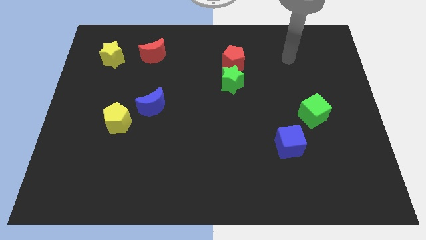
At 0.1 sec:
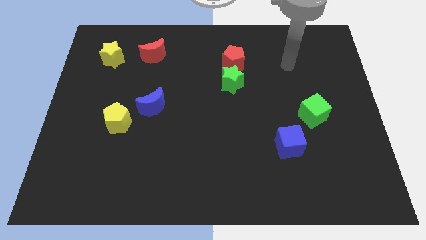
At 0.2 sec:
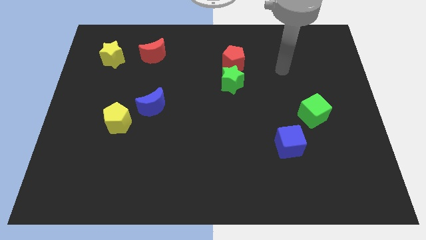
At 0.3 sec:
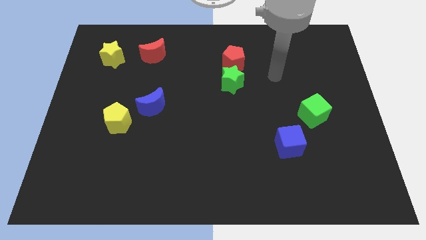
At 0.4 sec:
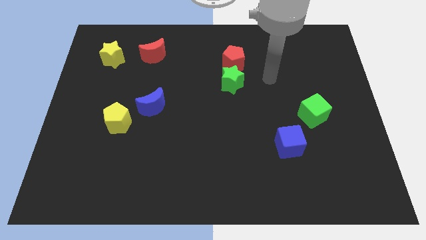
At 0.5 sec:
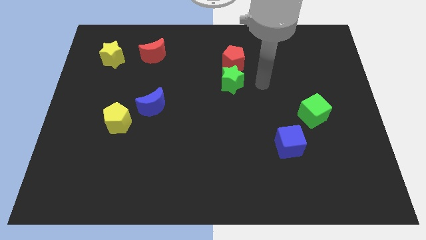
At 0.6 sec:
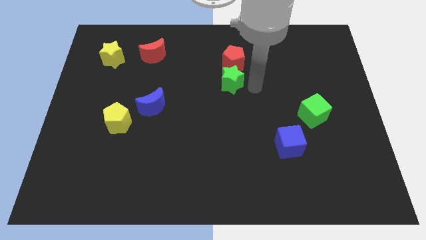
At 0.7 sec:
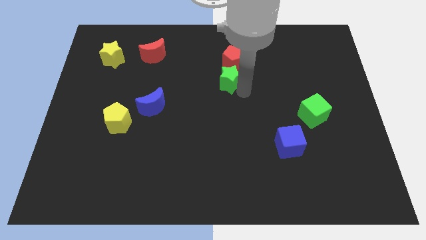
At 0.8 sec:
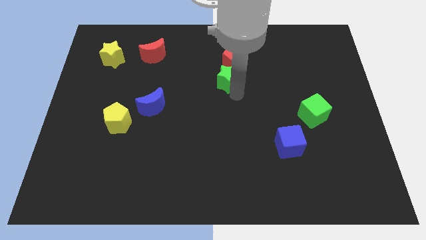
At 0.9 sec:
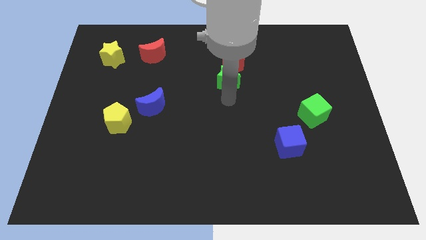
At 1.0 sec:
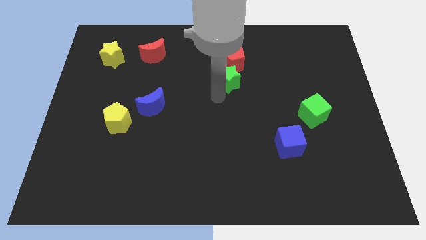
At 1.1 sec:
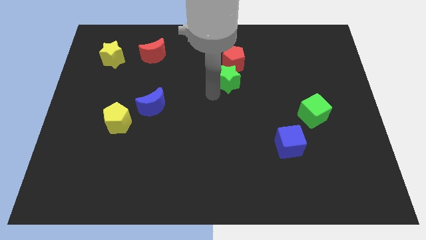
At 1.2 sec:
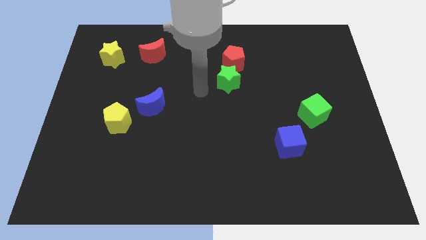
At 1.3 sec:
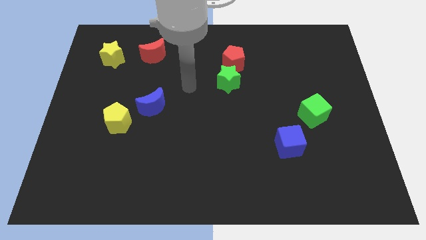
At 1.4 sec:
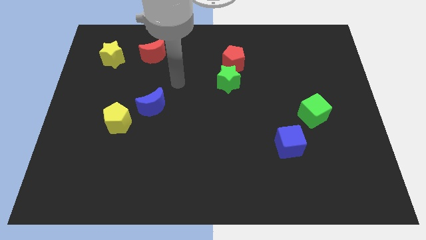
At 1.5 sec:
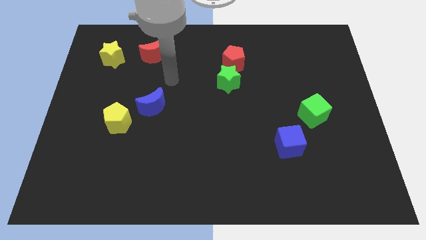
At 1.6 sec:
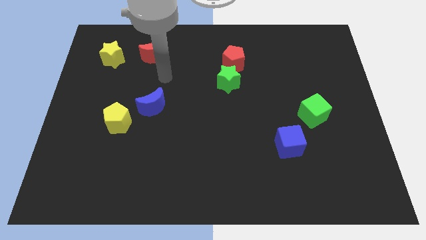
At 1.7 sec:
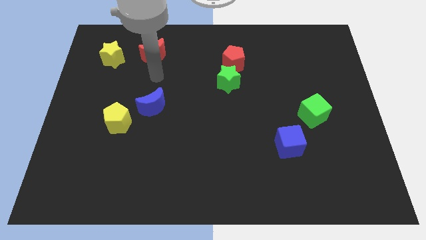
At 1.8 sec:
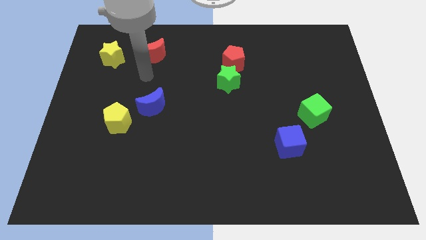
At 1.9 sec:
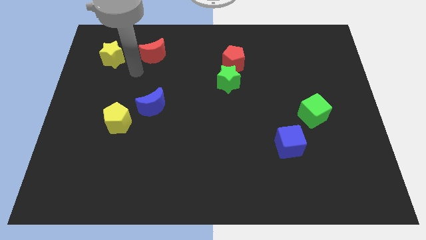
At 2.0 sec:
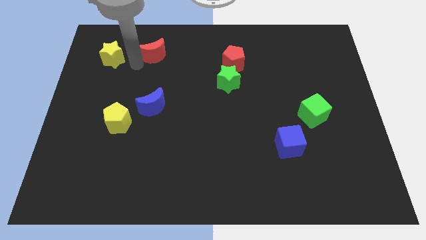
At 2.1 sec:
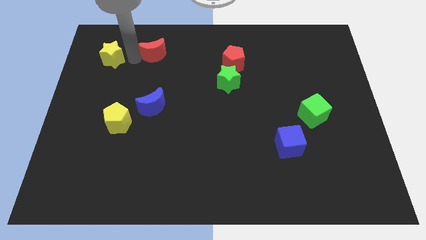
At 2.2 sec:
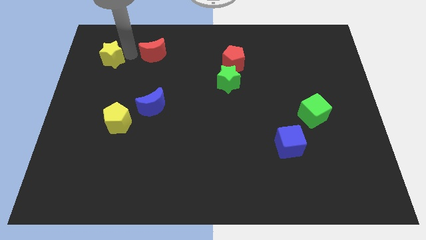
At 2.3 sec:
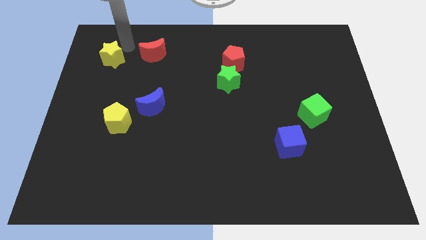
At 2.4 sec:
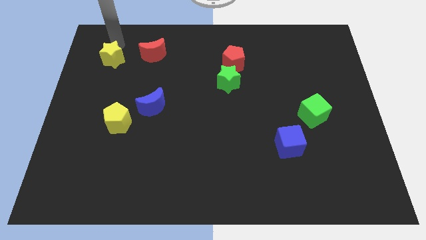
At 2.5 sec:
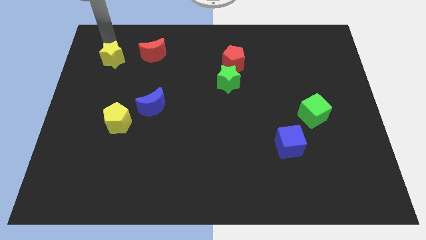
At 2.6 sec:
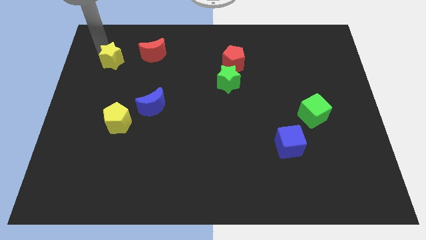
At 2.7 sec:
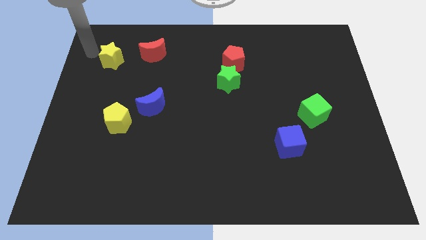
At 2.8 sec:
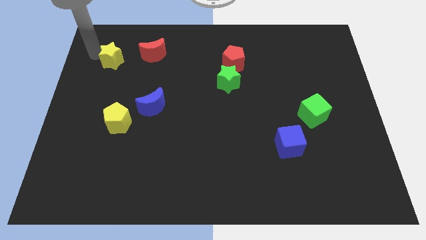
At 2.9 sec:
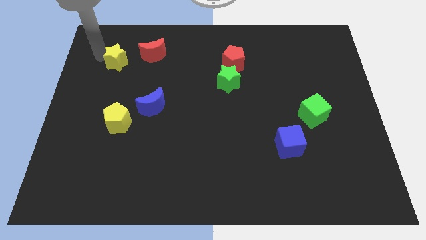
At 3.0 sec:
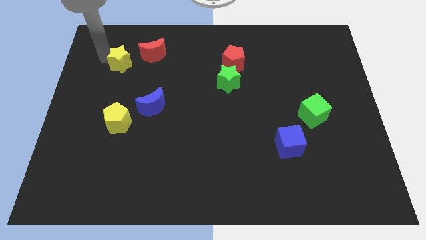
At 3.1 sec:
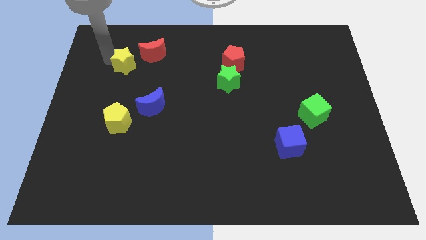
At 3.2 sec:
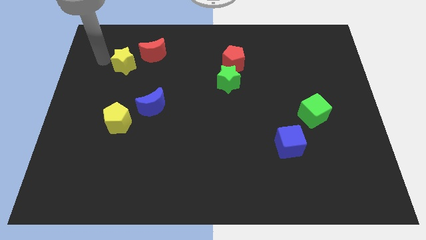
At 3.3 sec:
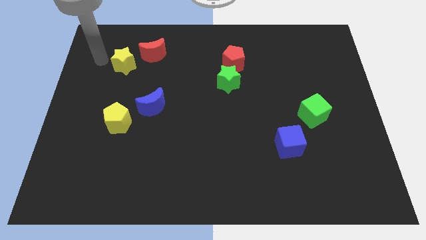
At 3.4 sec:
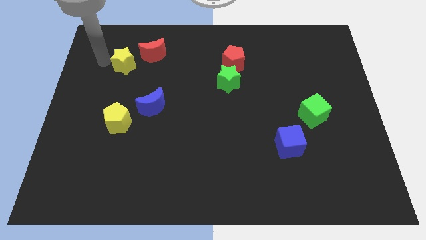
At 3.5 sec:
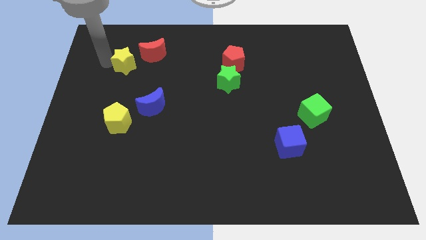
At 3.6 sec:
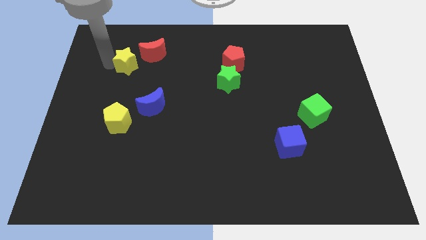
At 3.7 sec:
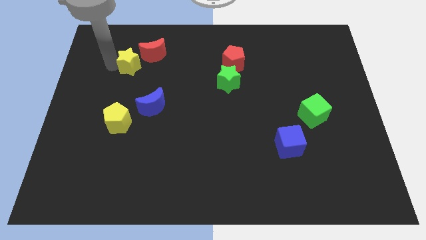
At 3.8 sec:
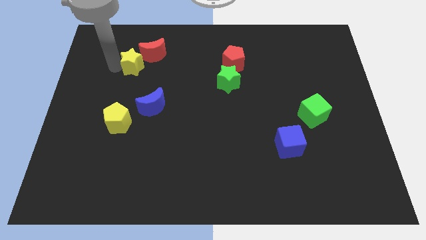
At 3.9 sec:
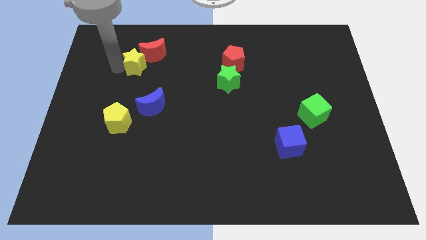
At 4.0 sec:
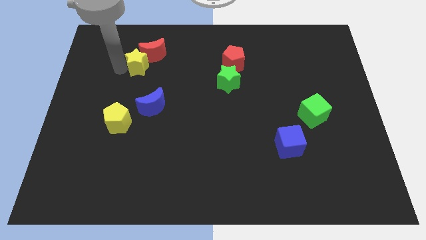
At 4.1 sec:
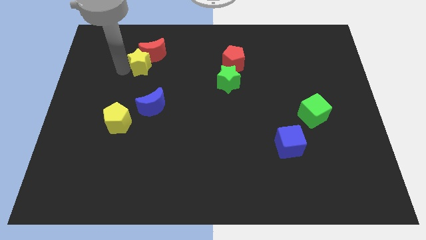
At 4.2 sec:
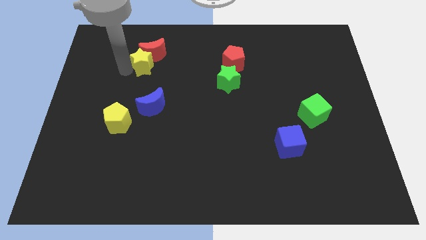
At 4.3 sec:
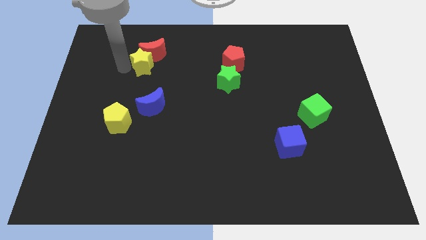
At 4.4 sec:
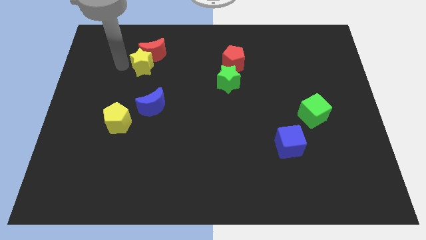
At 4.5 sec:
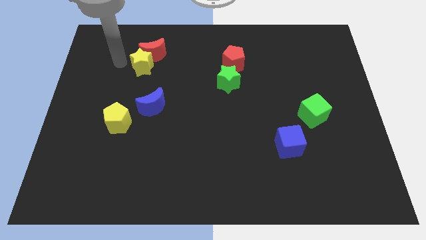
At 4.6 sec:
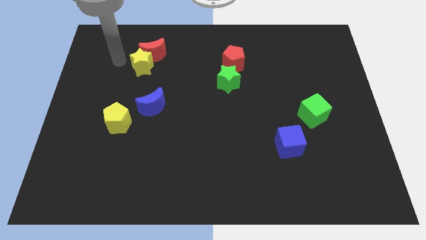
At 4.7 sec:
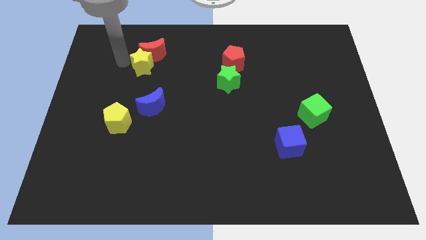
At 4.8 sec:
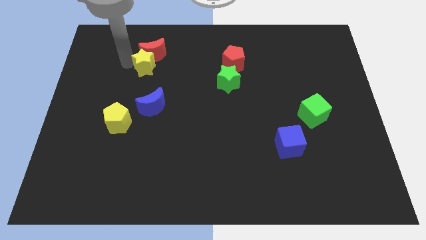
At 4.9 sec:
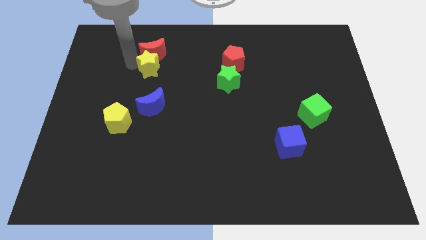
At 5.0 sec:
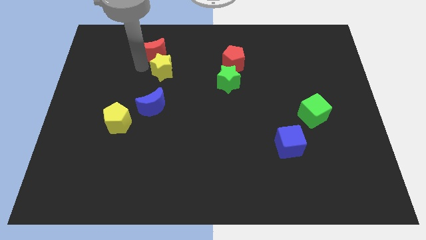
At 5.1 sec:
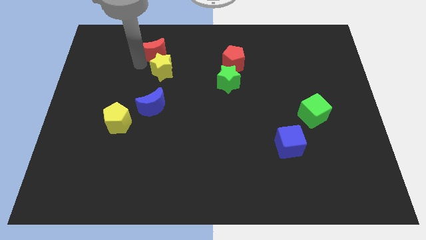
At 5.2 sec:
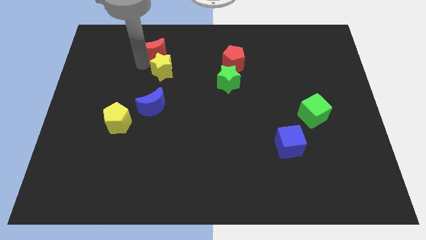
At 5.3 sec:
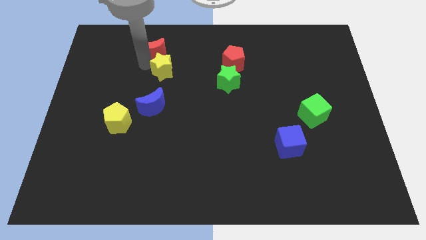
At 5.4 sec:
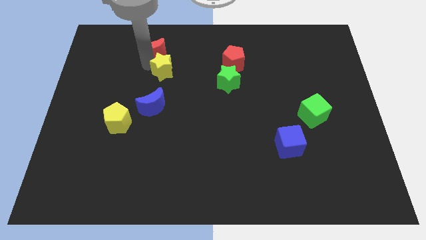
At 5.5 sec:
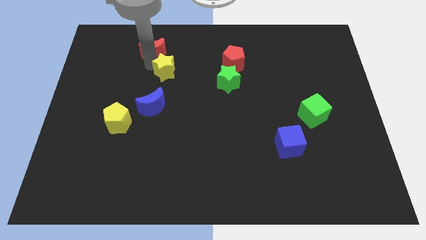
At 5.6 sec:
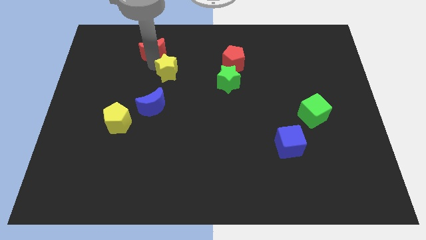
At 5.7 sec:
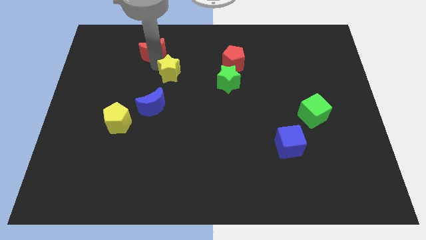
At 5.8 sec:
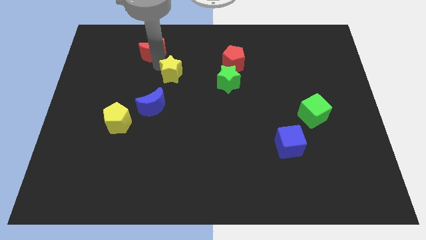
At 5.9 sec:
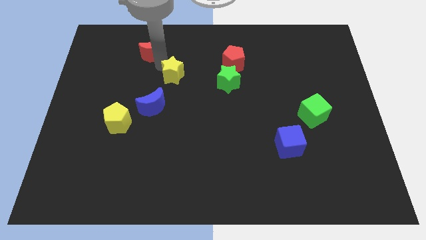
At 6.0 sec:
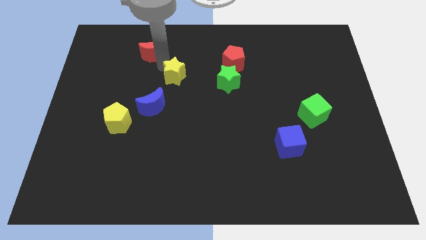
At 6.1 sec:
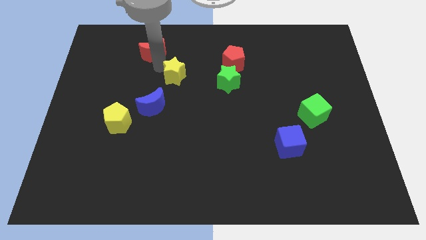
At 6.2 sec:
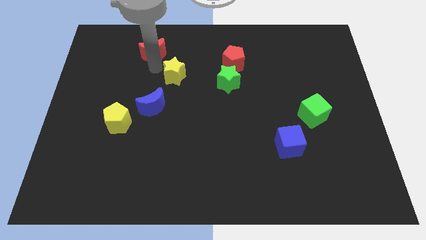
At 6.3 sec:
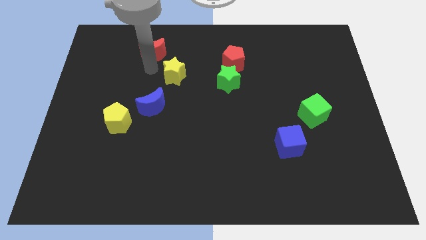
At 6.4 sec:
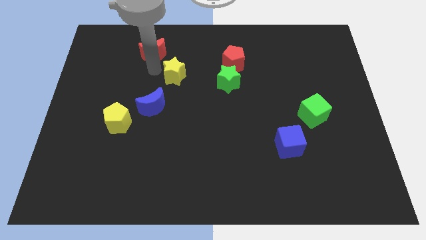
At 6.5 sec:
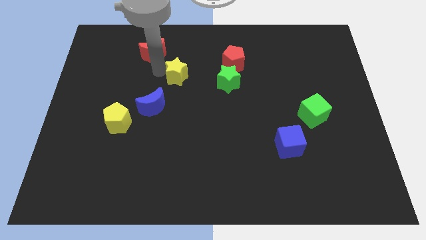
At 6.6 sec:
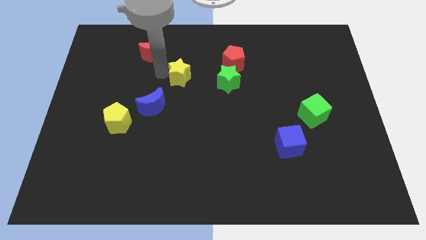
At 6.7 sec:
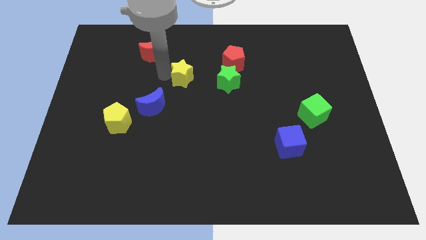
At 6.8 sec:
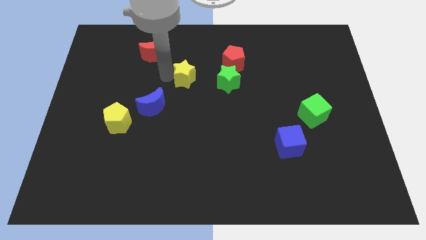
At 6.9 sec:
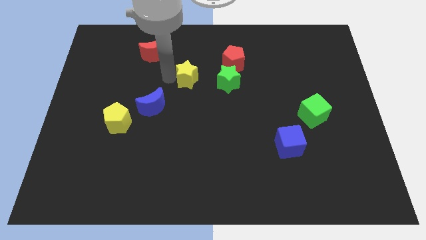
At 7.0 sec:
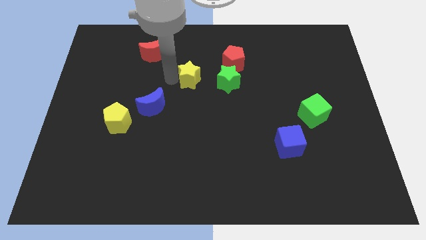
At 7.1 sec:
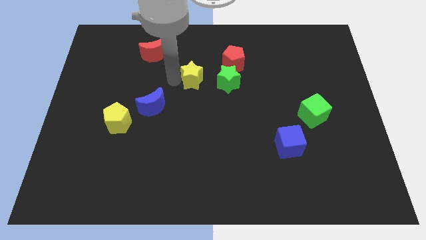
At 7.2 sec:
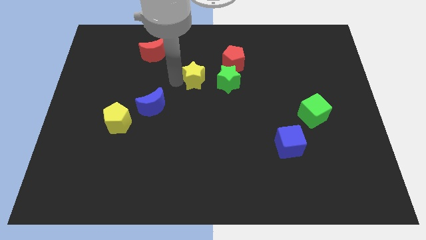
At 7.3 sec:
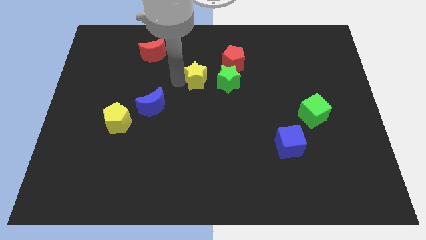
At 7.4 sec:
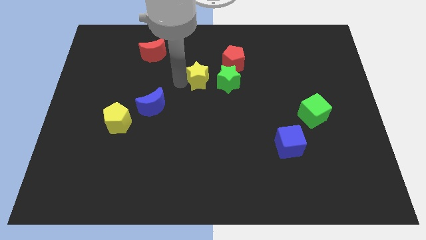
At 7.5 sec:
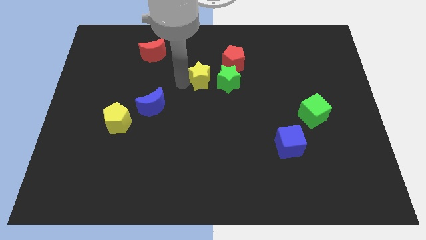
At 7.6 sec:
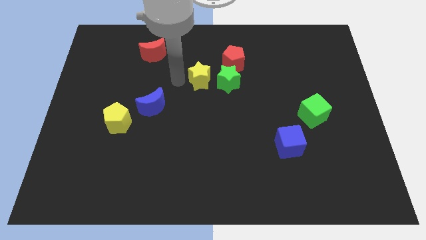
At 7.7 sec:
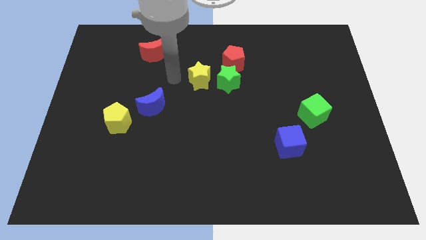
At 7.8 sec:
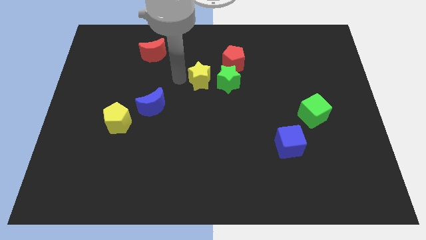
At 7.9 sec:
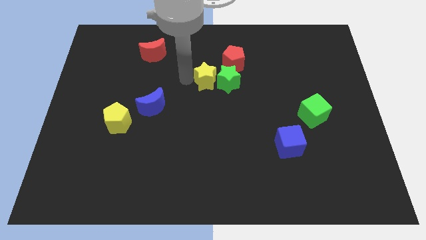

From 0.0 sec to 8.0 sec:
slide the yellow star next to the green star
